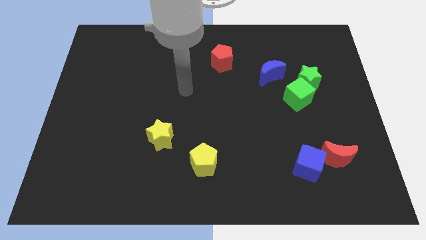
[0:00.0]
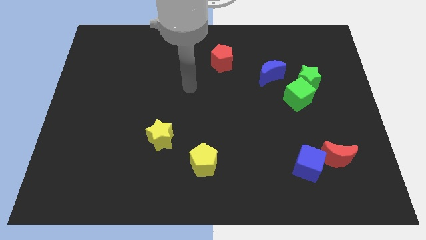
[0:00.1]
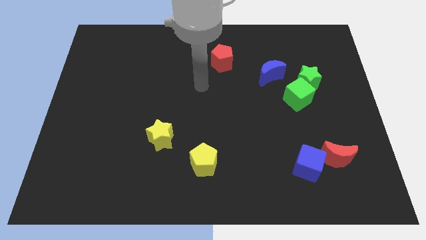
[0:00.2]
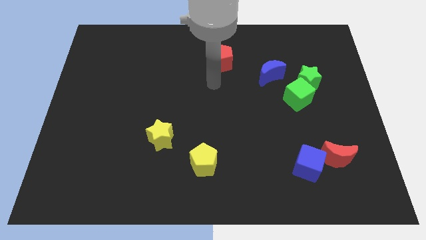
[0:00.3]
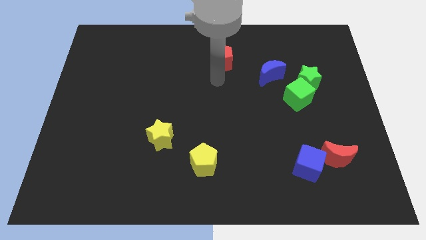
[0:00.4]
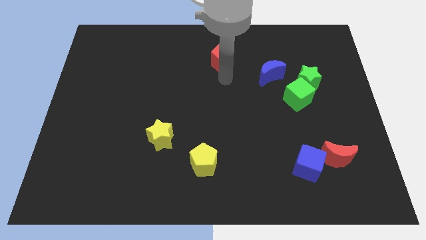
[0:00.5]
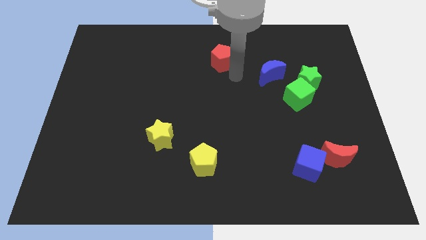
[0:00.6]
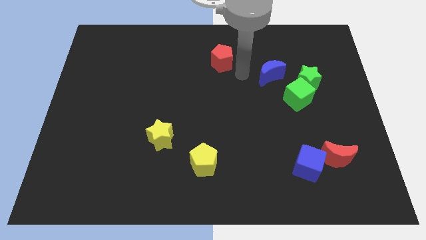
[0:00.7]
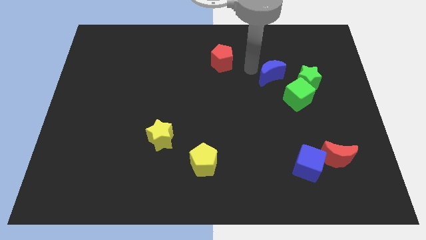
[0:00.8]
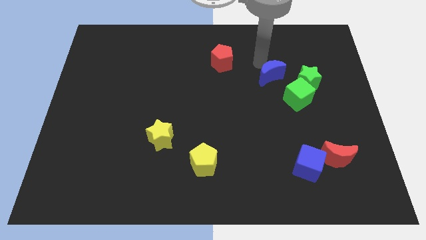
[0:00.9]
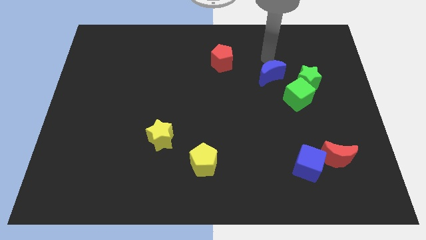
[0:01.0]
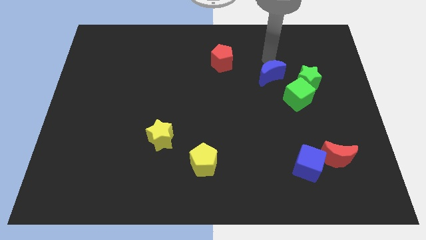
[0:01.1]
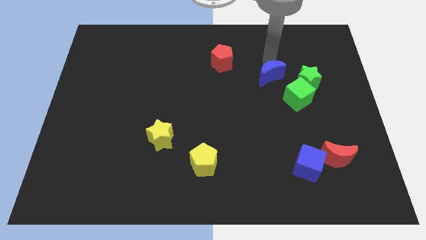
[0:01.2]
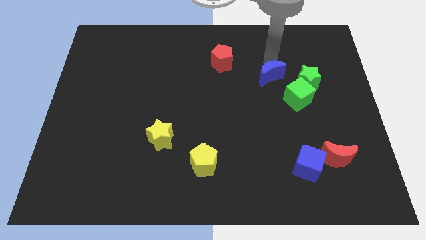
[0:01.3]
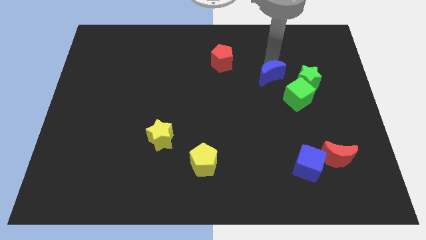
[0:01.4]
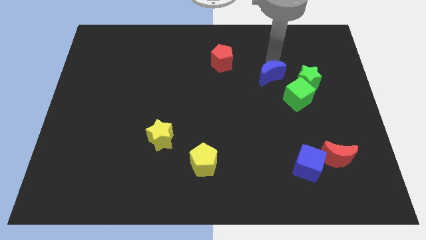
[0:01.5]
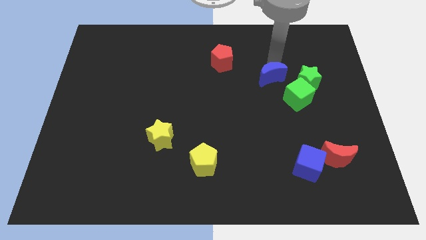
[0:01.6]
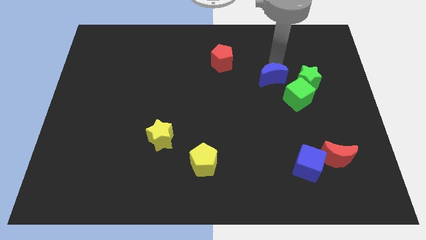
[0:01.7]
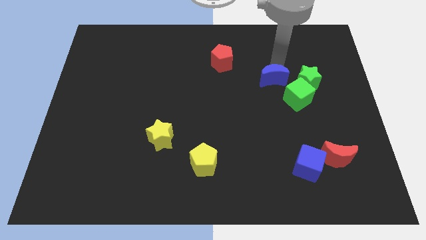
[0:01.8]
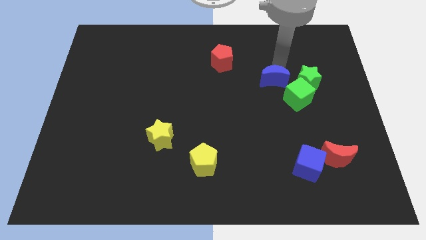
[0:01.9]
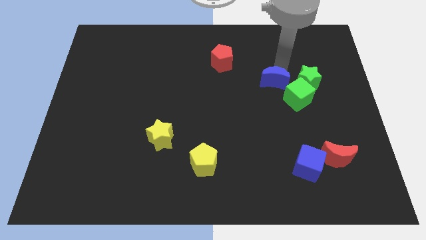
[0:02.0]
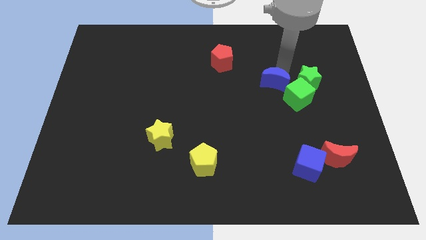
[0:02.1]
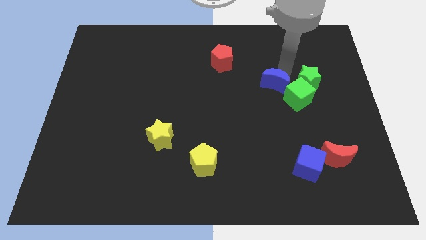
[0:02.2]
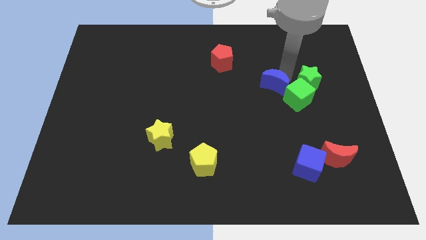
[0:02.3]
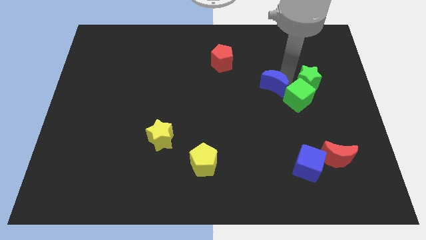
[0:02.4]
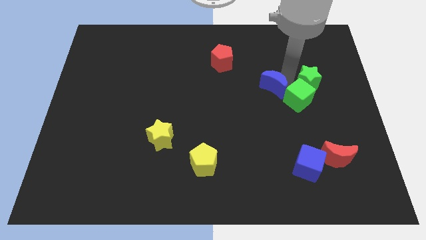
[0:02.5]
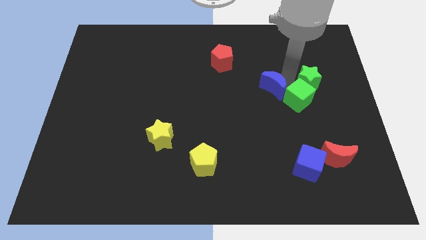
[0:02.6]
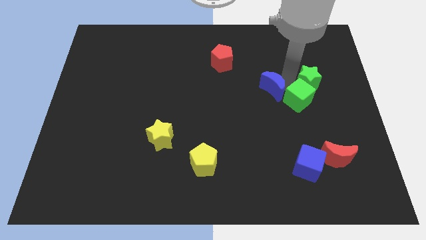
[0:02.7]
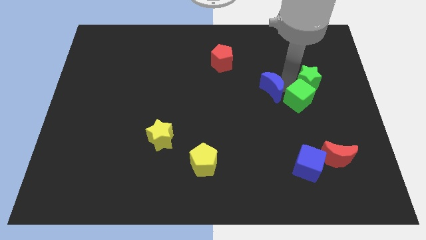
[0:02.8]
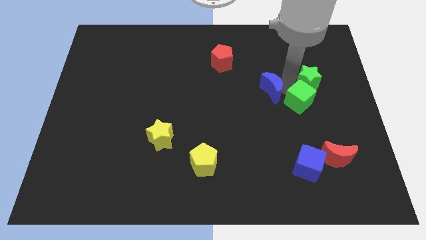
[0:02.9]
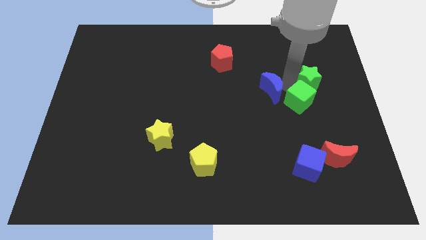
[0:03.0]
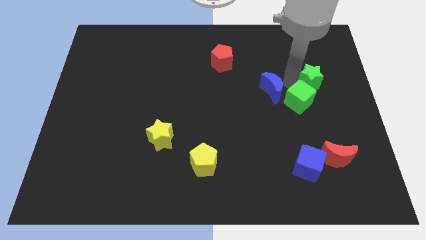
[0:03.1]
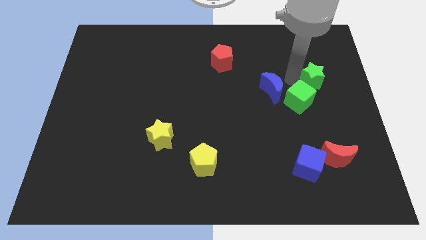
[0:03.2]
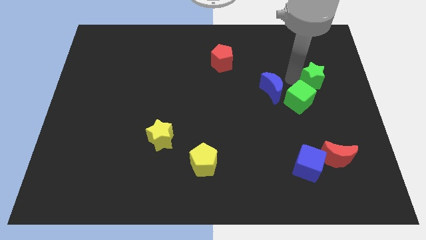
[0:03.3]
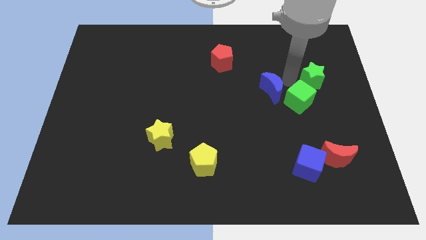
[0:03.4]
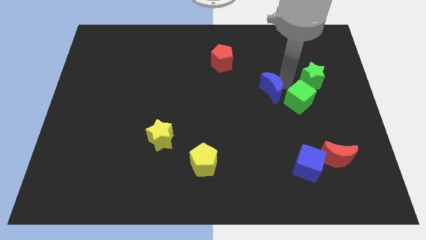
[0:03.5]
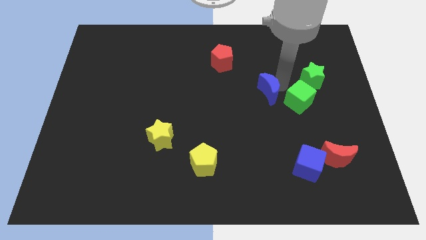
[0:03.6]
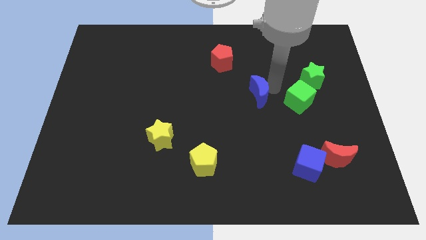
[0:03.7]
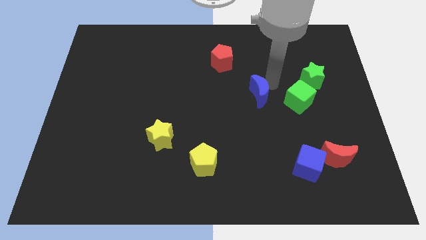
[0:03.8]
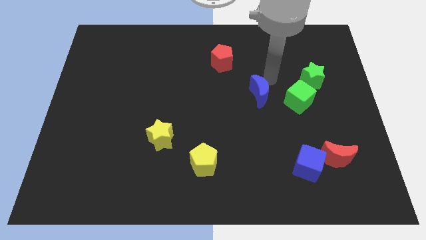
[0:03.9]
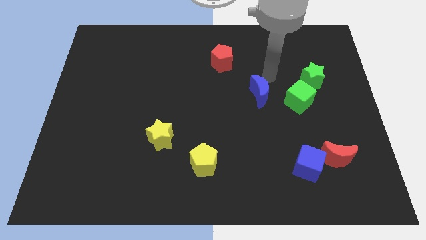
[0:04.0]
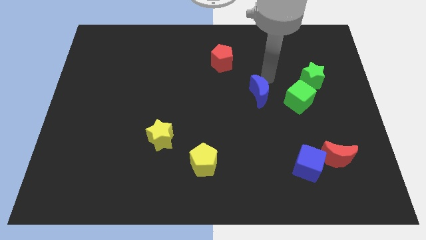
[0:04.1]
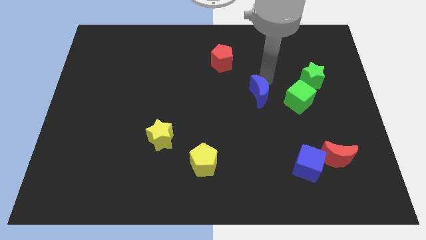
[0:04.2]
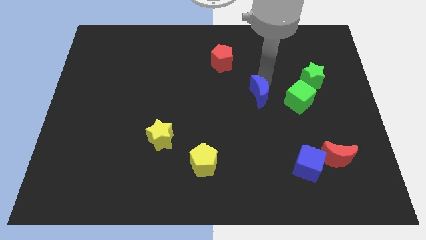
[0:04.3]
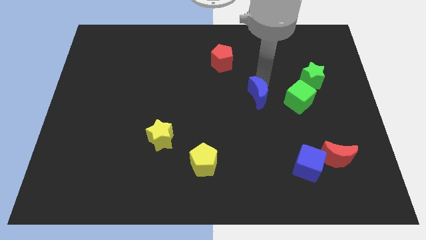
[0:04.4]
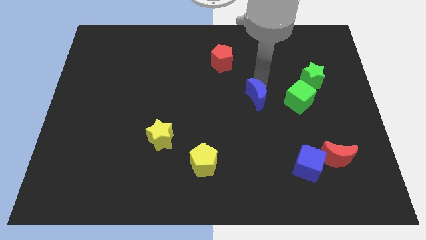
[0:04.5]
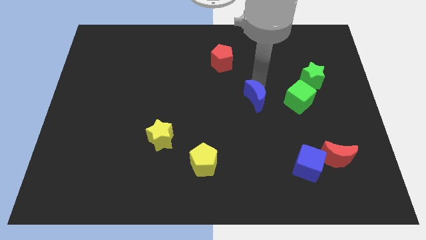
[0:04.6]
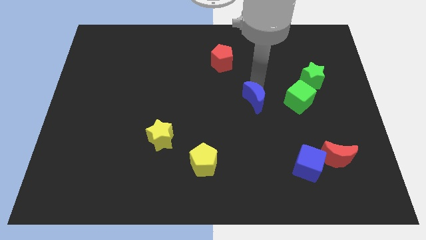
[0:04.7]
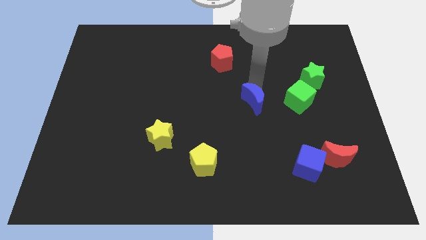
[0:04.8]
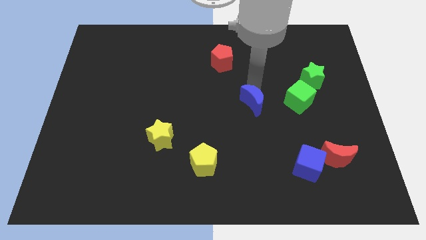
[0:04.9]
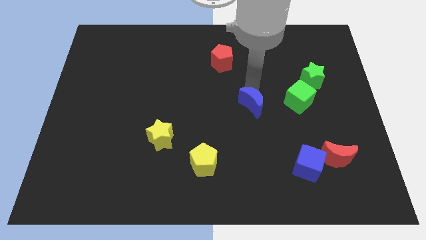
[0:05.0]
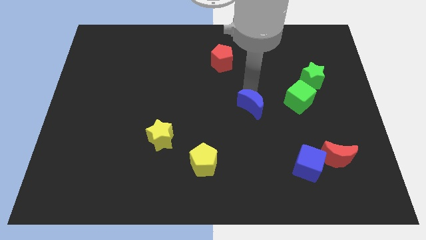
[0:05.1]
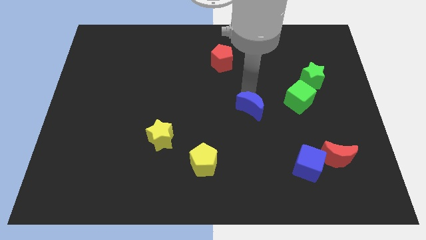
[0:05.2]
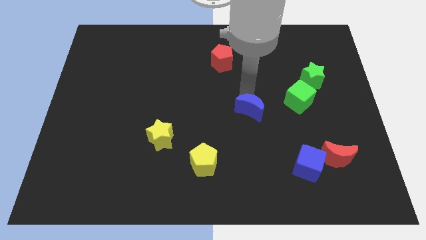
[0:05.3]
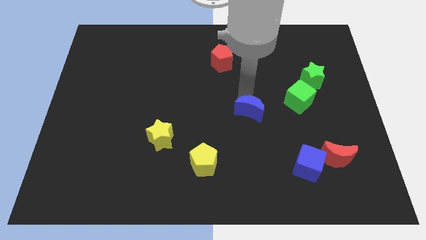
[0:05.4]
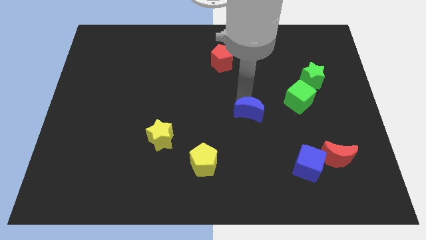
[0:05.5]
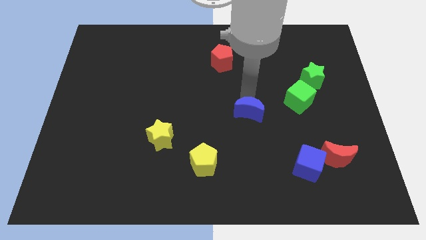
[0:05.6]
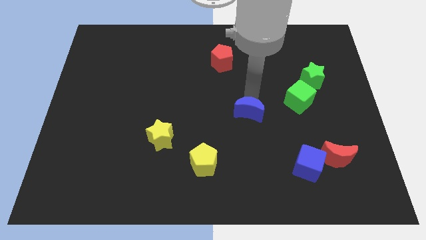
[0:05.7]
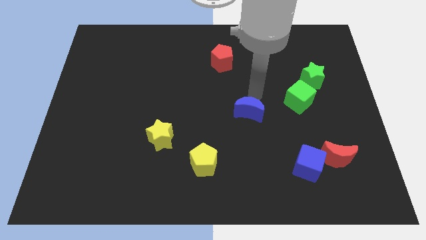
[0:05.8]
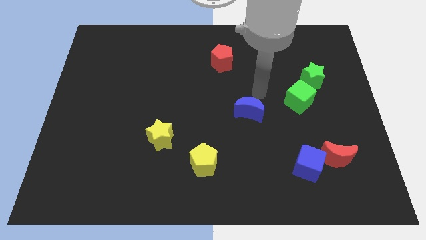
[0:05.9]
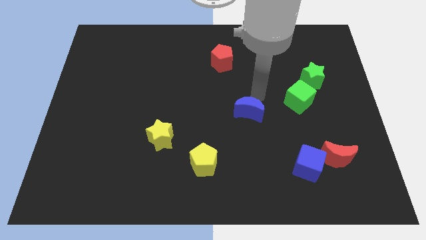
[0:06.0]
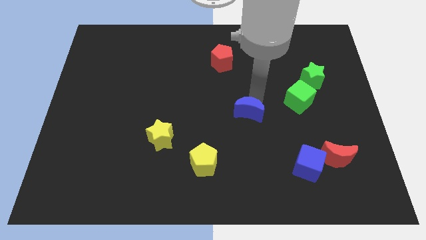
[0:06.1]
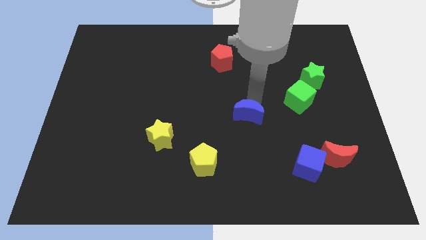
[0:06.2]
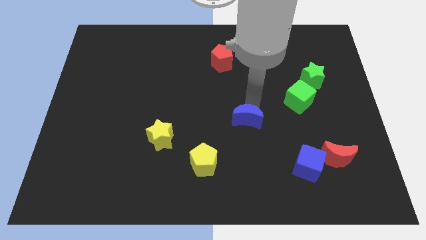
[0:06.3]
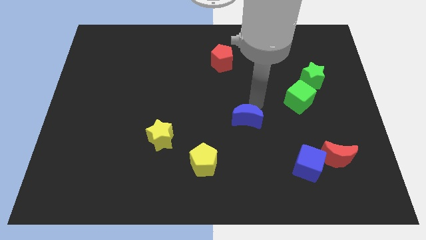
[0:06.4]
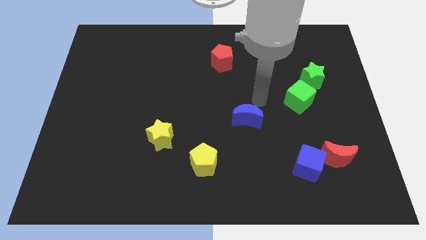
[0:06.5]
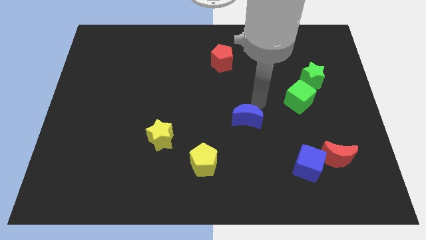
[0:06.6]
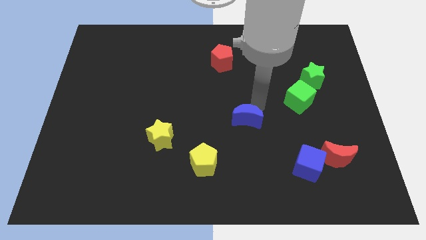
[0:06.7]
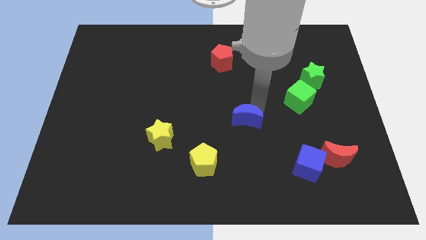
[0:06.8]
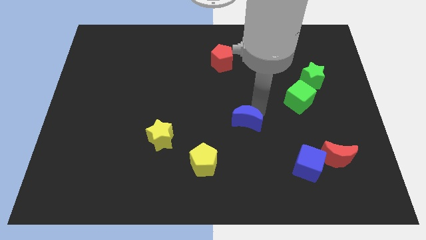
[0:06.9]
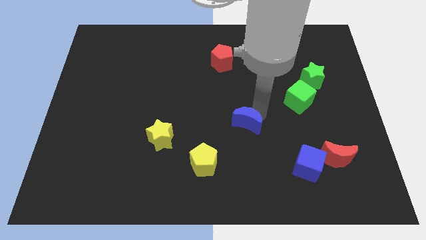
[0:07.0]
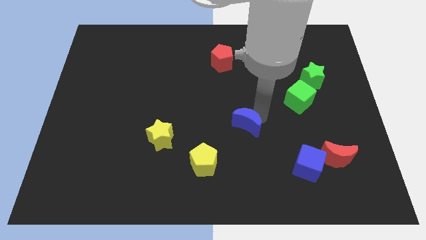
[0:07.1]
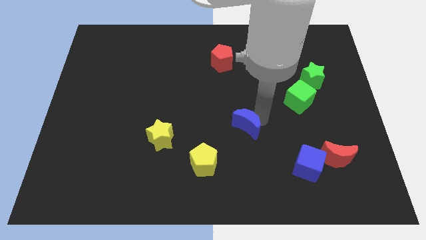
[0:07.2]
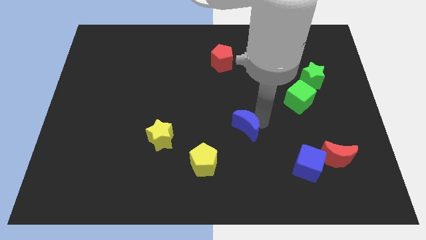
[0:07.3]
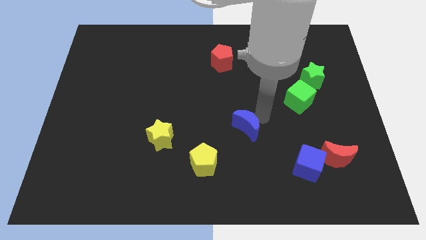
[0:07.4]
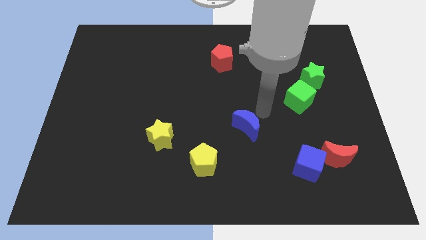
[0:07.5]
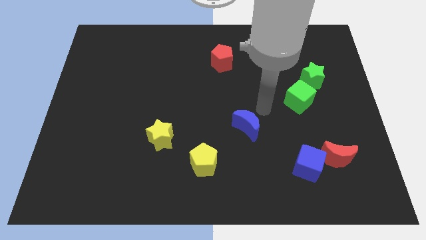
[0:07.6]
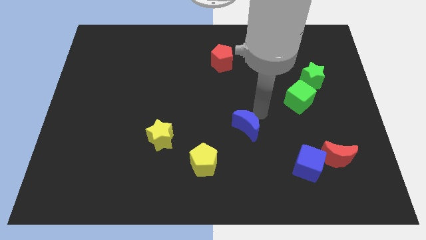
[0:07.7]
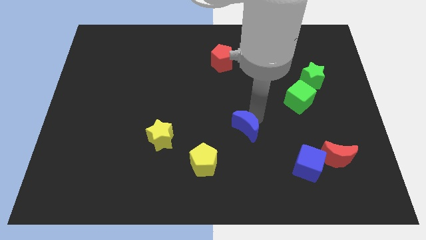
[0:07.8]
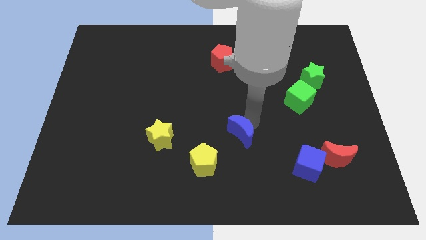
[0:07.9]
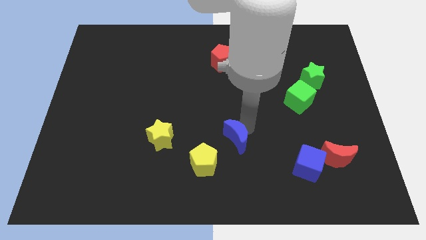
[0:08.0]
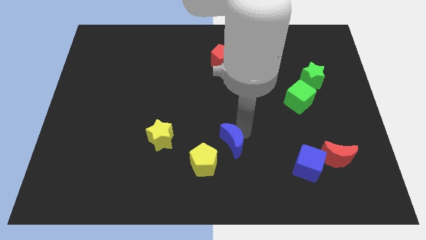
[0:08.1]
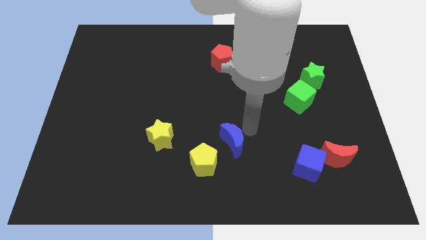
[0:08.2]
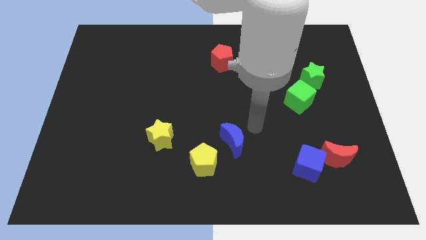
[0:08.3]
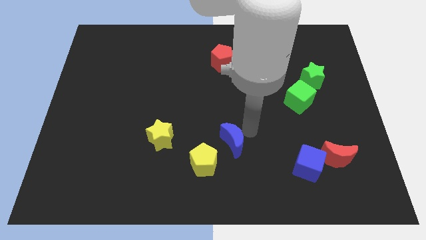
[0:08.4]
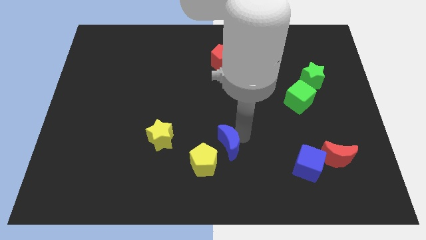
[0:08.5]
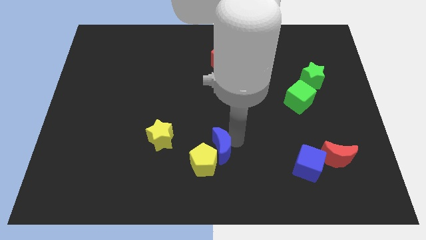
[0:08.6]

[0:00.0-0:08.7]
put the blue moon next to the yellow pentagon
